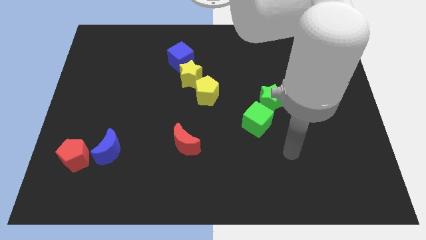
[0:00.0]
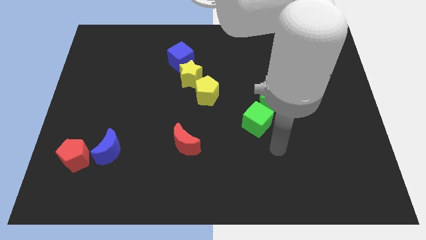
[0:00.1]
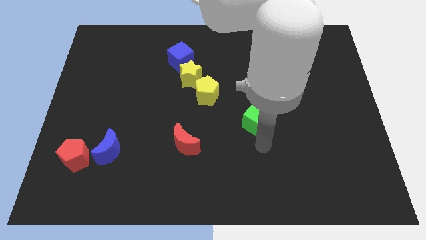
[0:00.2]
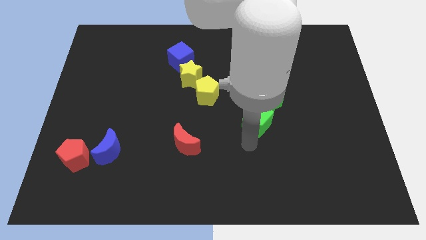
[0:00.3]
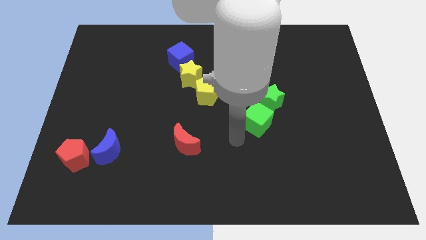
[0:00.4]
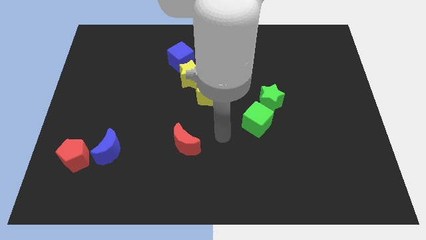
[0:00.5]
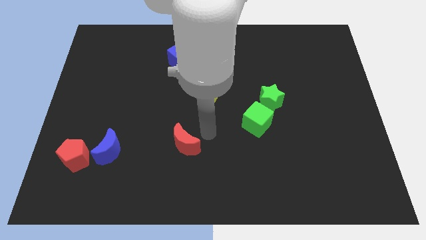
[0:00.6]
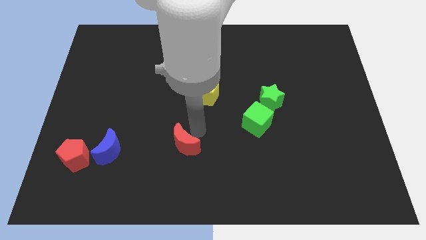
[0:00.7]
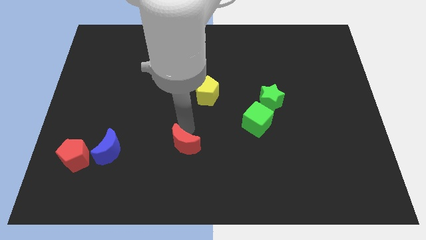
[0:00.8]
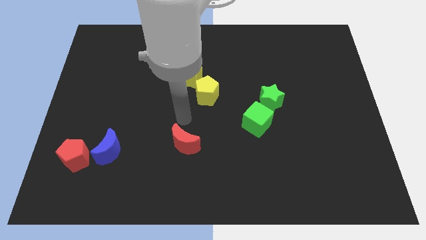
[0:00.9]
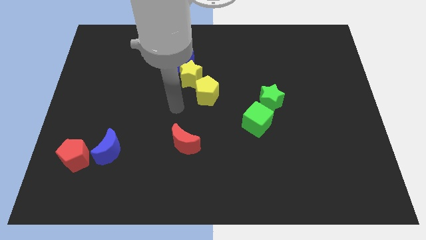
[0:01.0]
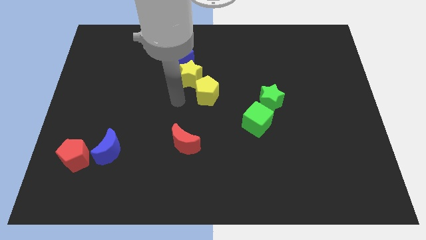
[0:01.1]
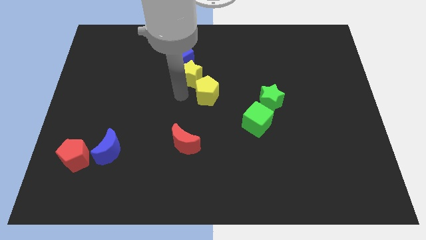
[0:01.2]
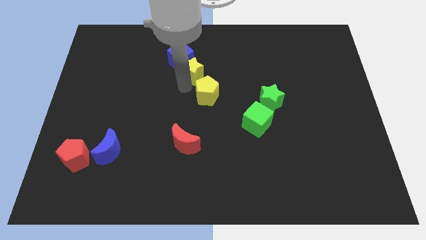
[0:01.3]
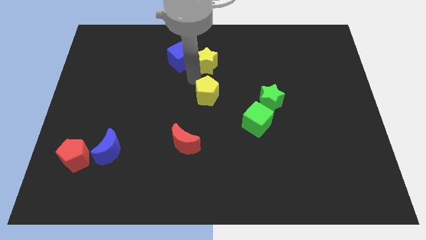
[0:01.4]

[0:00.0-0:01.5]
separate the yellow pentagon from the yellow star

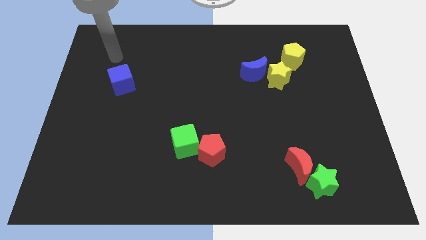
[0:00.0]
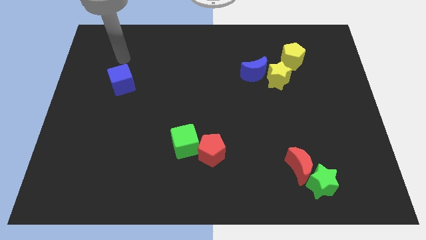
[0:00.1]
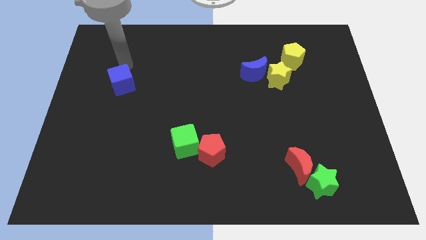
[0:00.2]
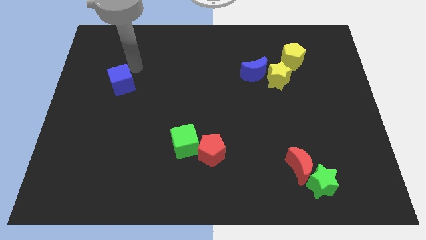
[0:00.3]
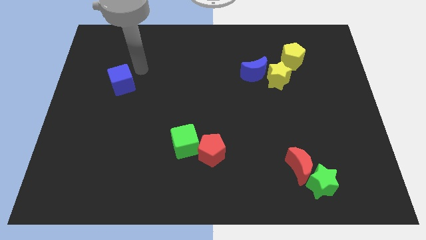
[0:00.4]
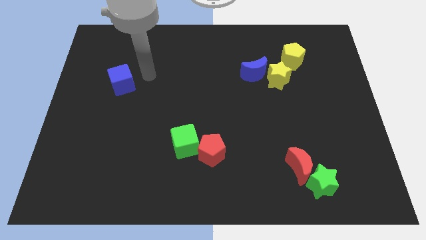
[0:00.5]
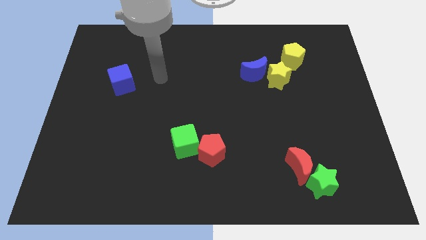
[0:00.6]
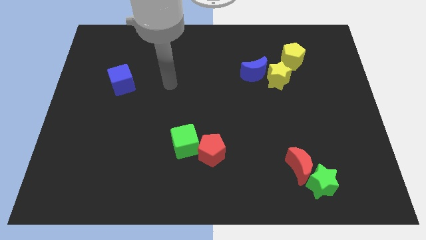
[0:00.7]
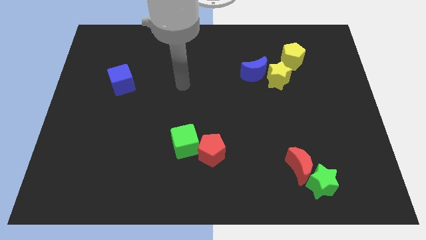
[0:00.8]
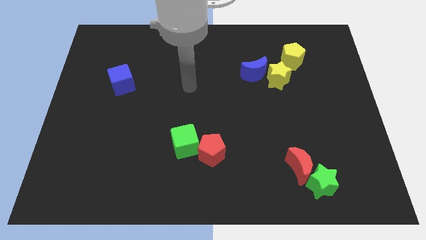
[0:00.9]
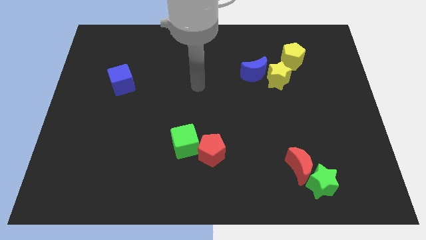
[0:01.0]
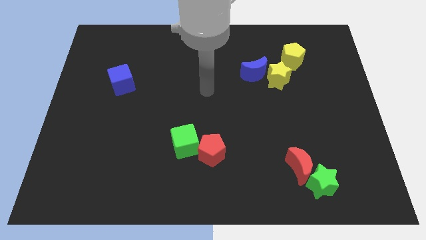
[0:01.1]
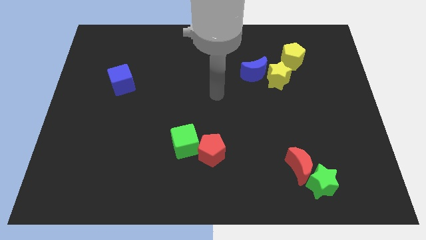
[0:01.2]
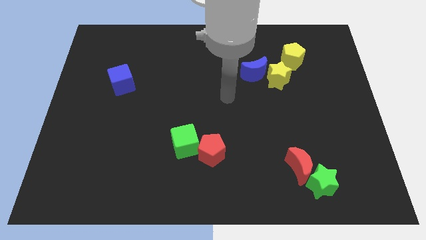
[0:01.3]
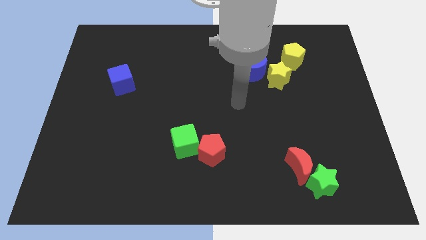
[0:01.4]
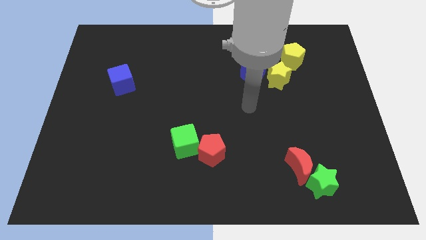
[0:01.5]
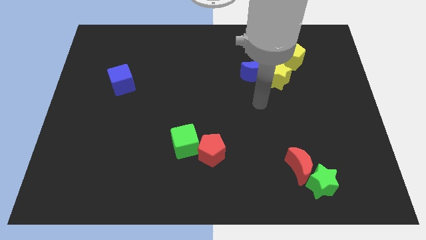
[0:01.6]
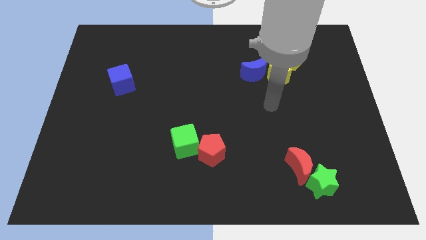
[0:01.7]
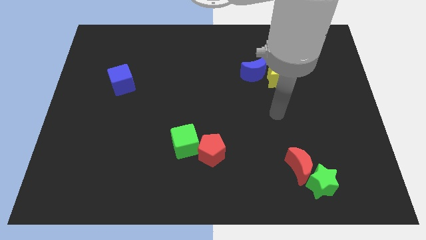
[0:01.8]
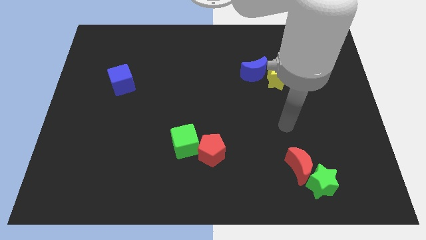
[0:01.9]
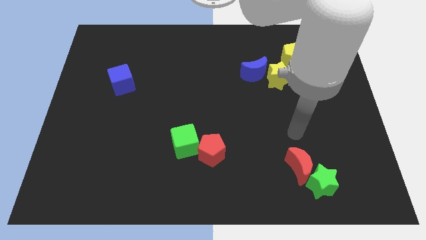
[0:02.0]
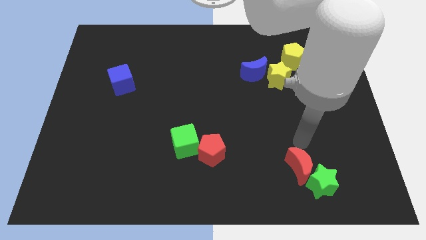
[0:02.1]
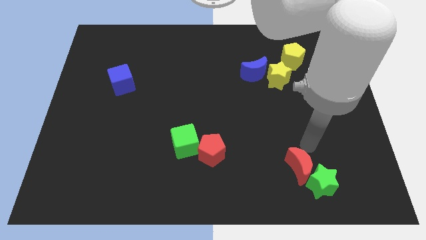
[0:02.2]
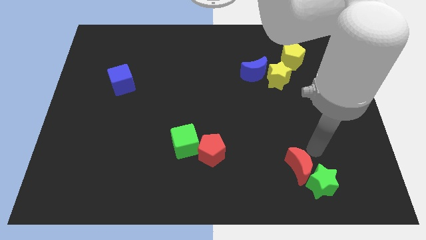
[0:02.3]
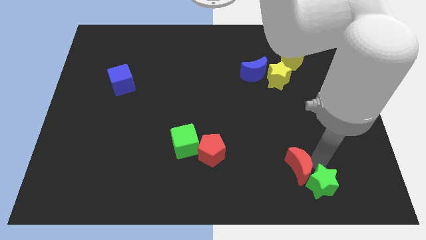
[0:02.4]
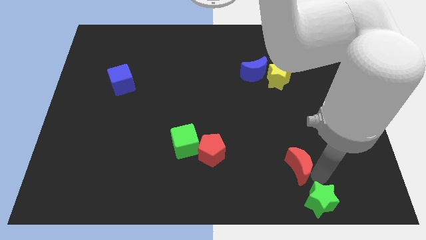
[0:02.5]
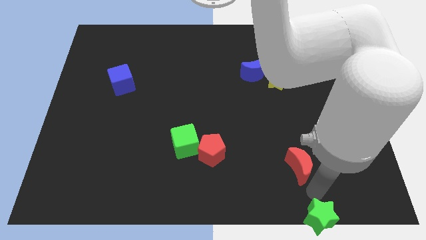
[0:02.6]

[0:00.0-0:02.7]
separate the red moon from the green star

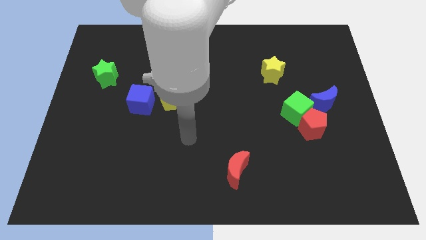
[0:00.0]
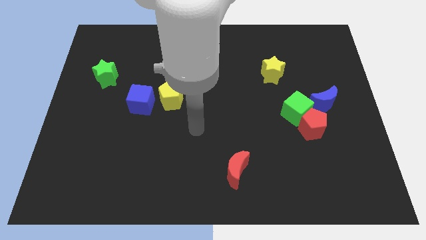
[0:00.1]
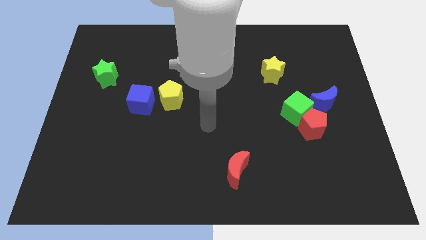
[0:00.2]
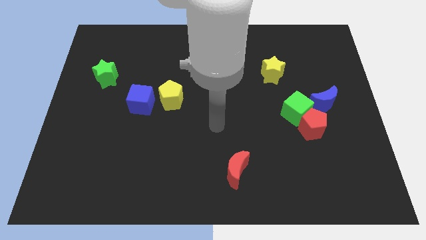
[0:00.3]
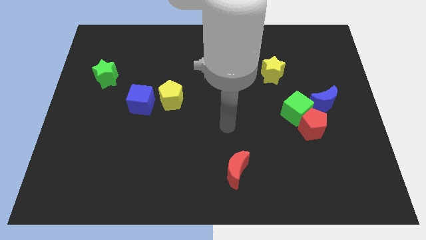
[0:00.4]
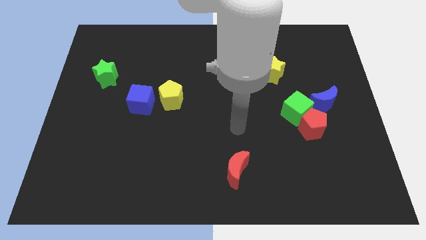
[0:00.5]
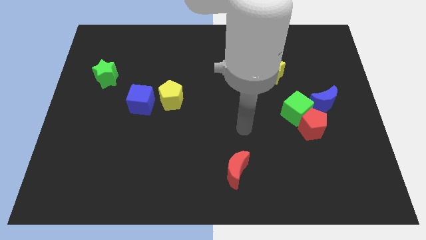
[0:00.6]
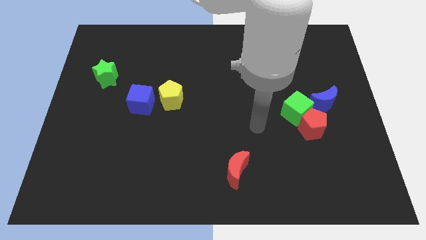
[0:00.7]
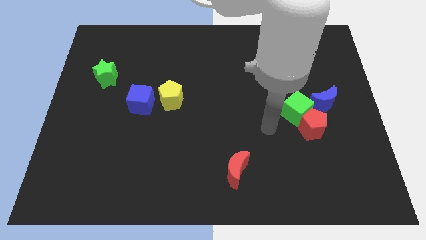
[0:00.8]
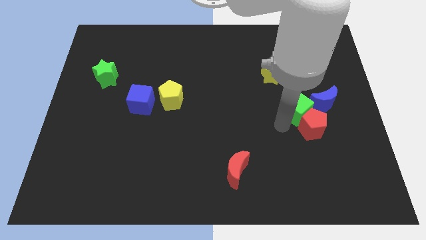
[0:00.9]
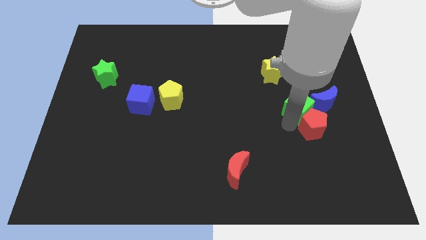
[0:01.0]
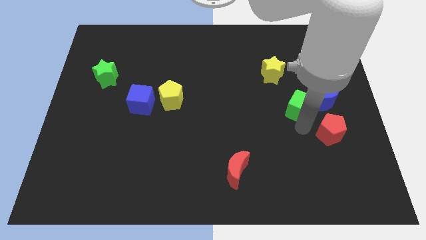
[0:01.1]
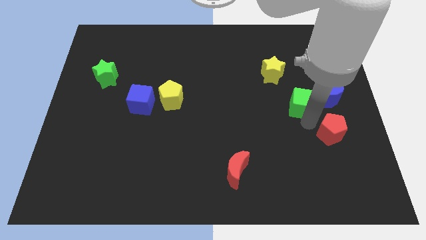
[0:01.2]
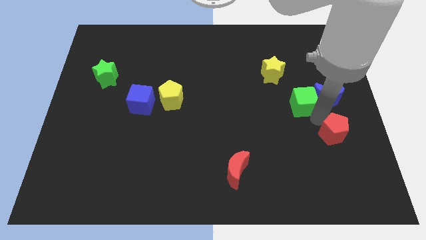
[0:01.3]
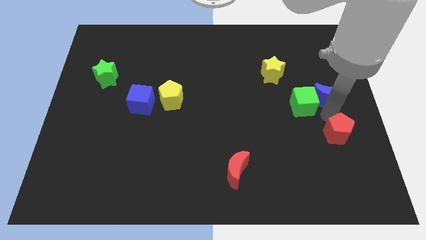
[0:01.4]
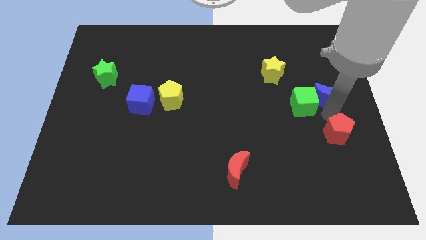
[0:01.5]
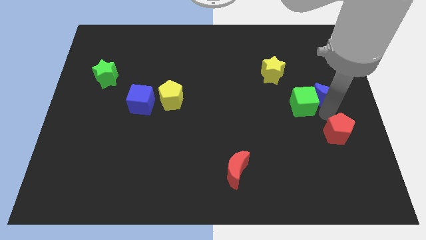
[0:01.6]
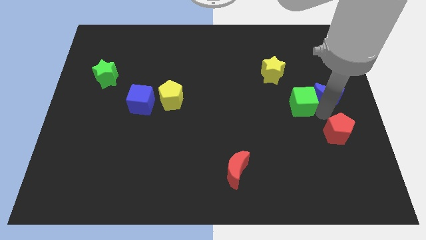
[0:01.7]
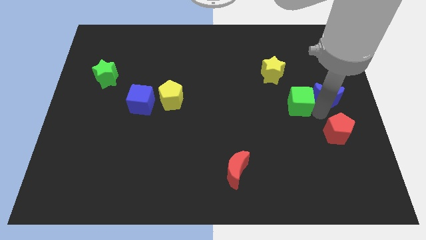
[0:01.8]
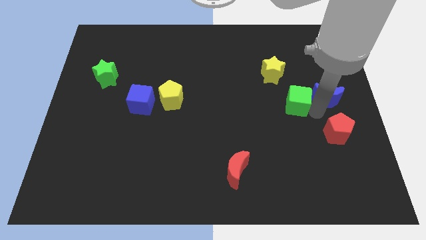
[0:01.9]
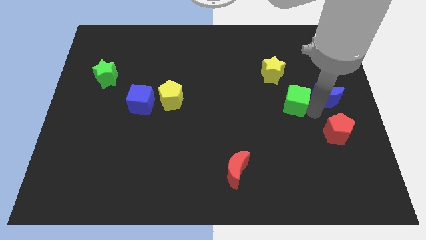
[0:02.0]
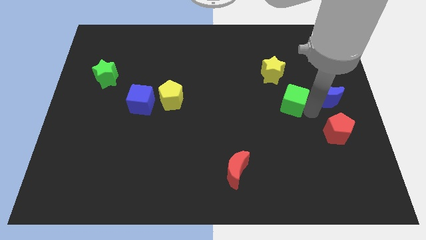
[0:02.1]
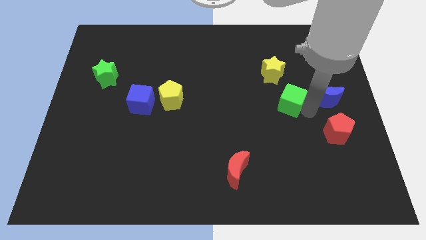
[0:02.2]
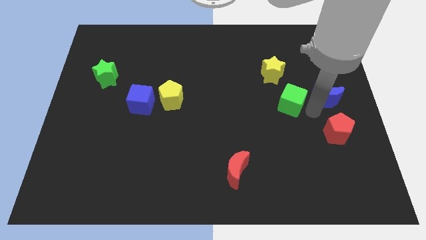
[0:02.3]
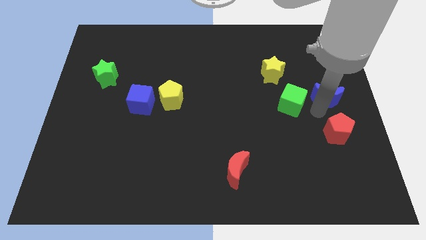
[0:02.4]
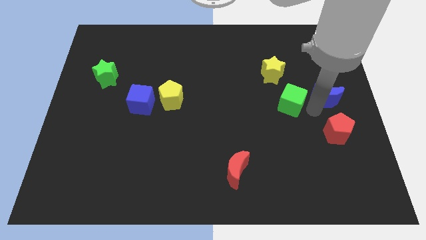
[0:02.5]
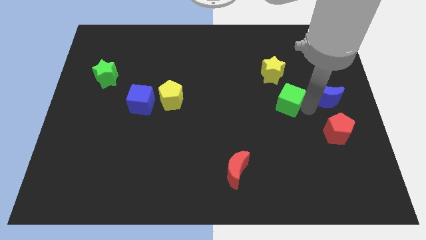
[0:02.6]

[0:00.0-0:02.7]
pull the green cube apart from the red pentagon and blue moon

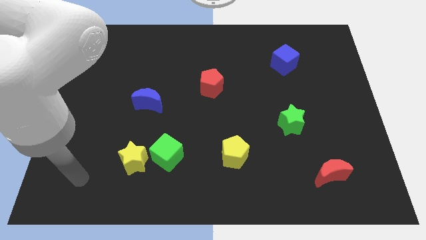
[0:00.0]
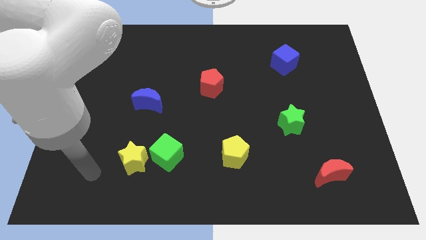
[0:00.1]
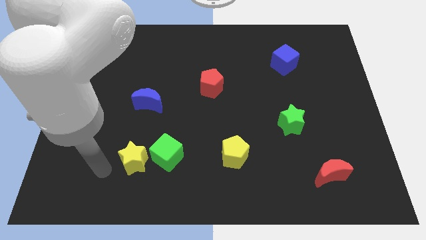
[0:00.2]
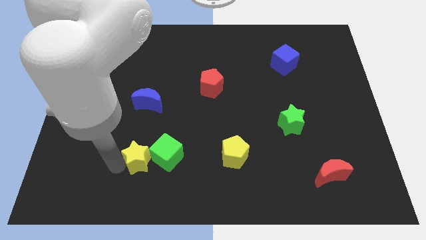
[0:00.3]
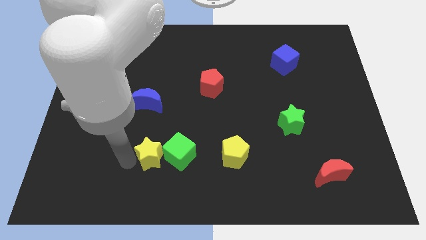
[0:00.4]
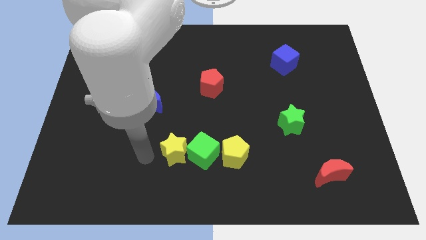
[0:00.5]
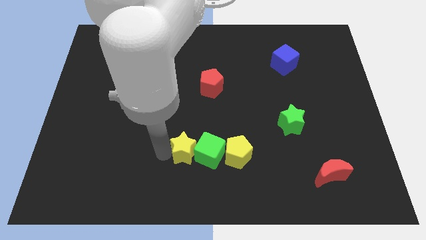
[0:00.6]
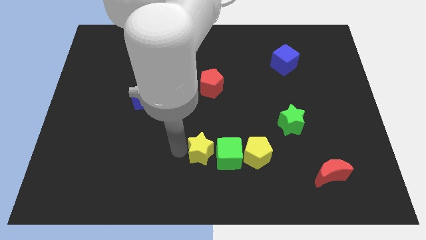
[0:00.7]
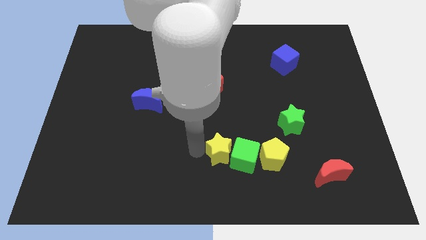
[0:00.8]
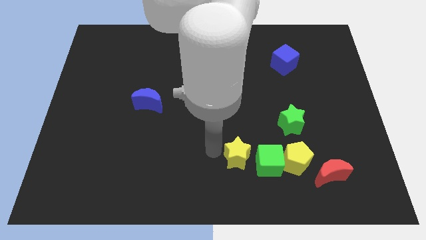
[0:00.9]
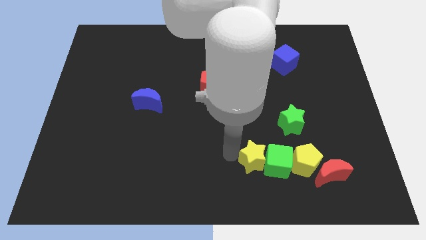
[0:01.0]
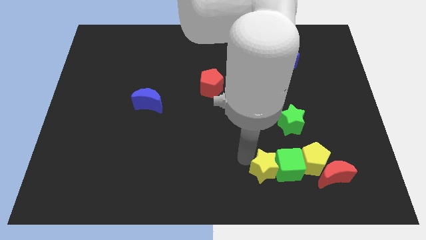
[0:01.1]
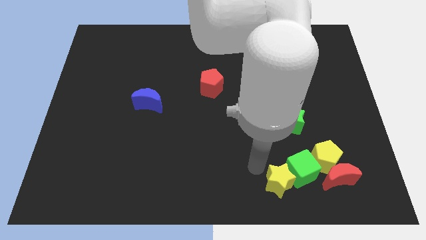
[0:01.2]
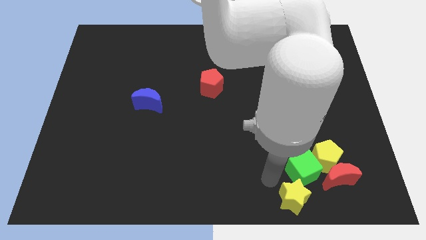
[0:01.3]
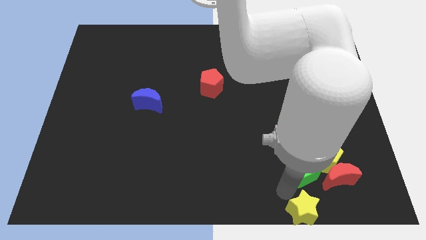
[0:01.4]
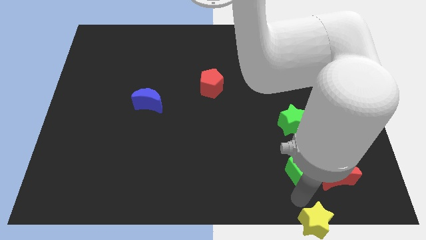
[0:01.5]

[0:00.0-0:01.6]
move the green cube away from the yellow star

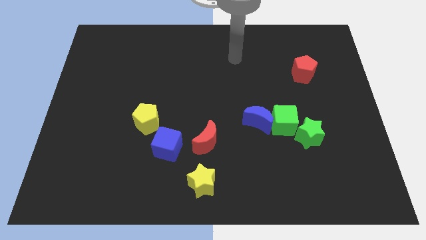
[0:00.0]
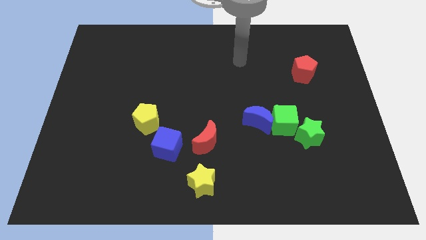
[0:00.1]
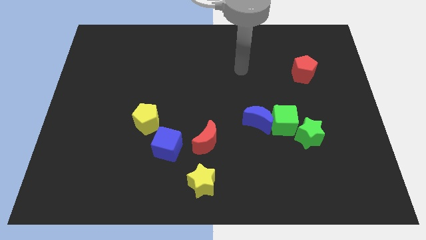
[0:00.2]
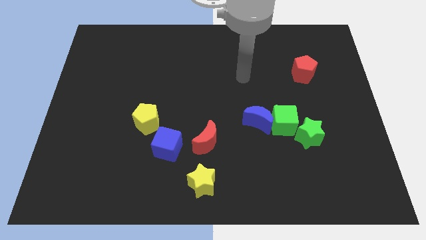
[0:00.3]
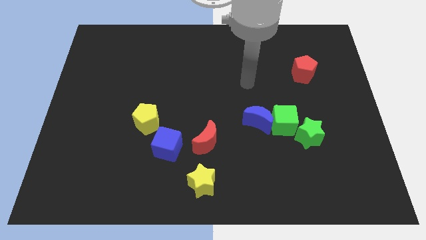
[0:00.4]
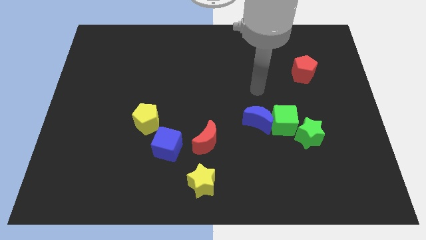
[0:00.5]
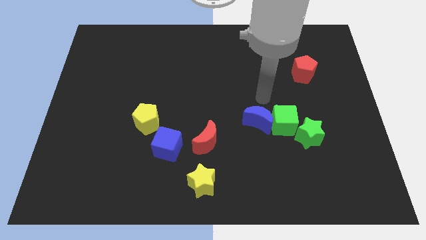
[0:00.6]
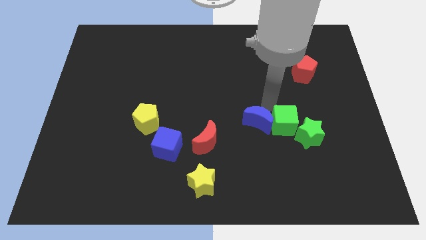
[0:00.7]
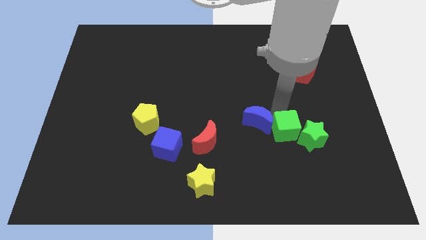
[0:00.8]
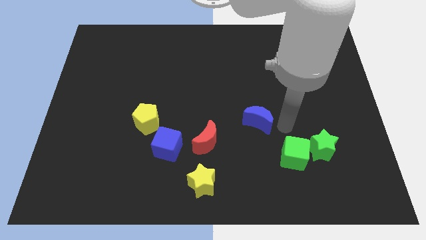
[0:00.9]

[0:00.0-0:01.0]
pull the blue moon apart from the green cube
